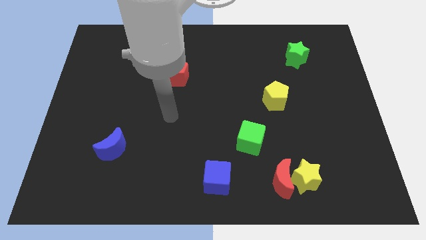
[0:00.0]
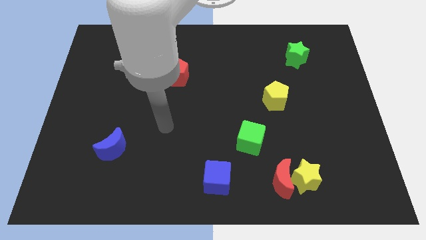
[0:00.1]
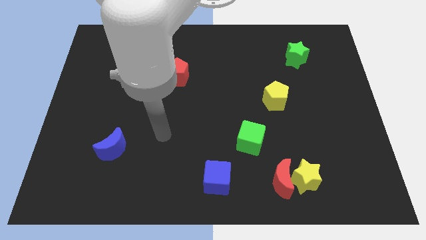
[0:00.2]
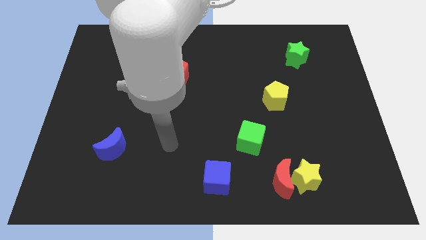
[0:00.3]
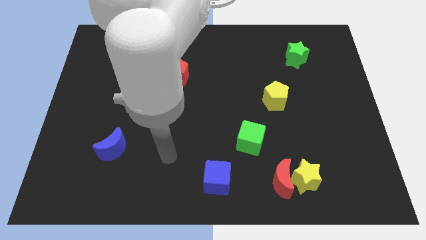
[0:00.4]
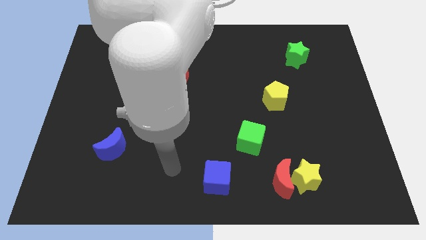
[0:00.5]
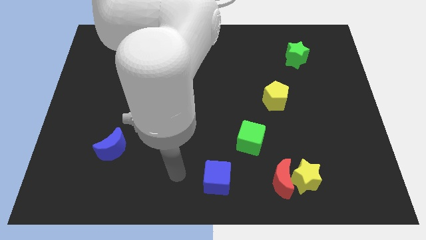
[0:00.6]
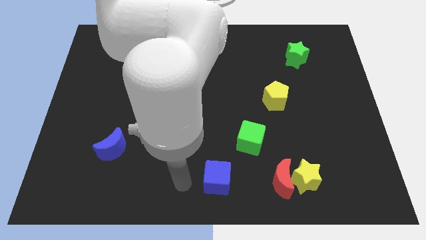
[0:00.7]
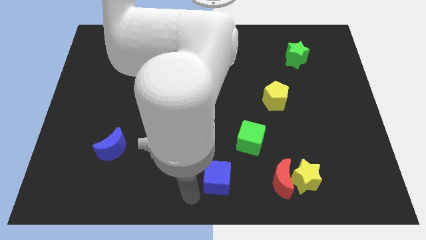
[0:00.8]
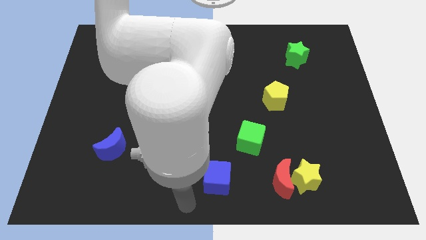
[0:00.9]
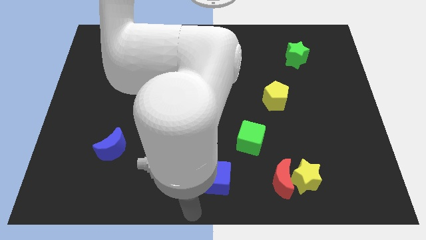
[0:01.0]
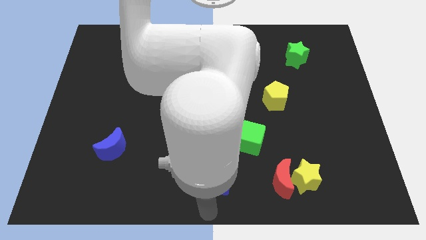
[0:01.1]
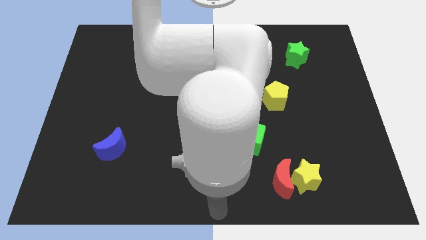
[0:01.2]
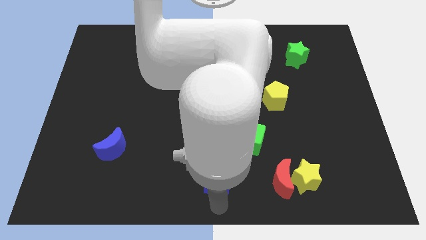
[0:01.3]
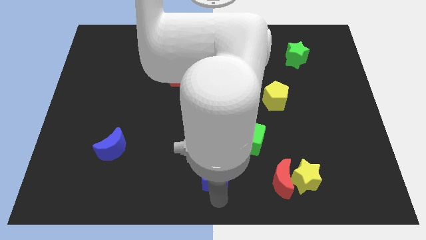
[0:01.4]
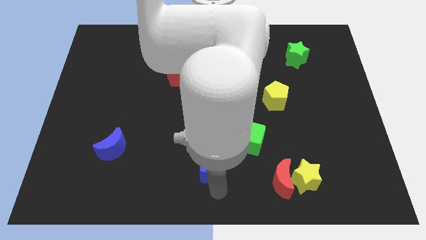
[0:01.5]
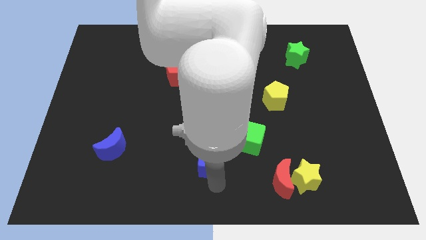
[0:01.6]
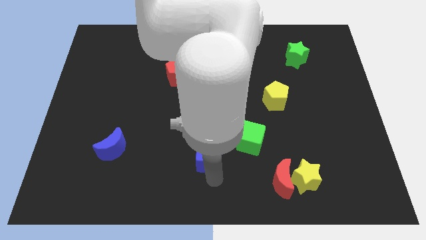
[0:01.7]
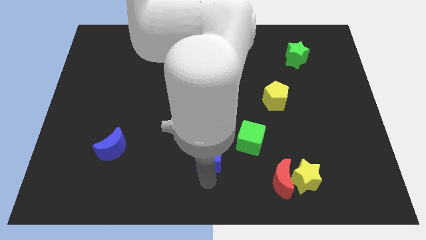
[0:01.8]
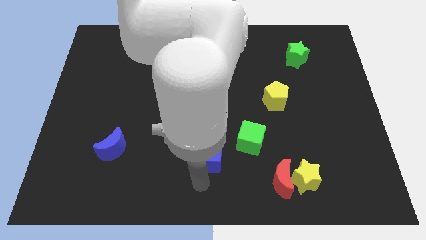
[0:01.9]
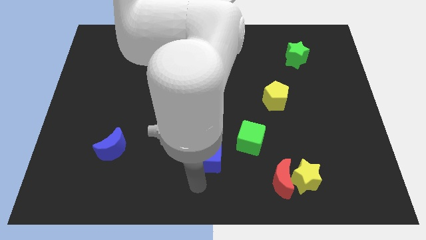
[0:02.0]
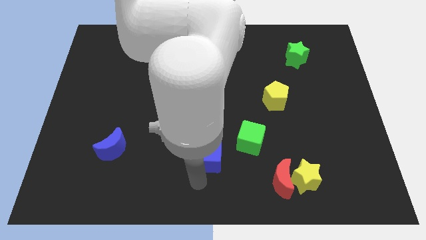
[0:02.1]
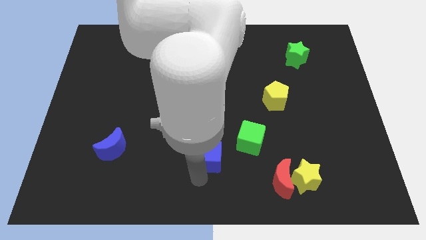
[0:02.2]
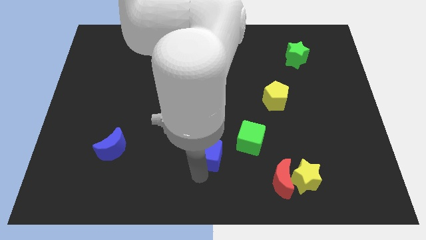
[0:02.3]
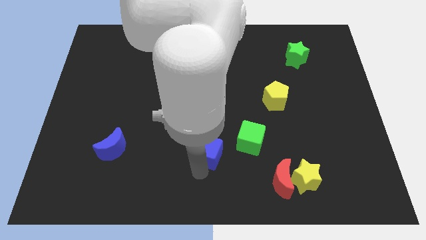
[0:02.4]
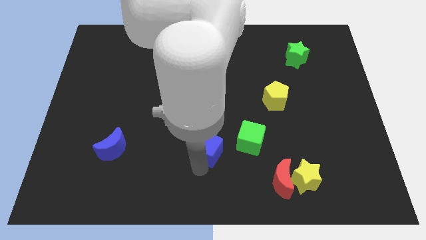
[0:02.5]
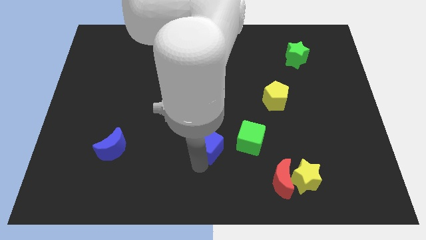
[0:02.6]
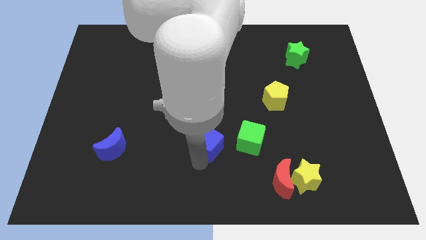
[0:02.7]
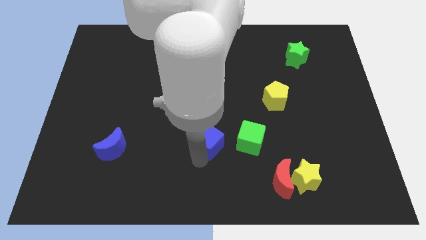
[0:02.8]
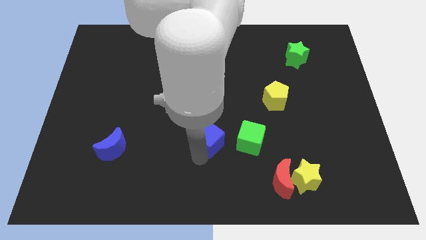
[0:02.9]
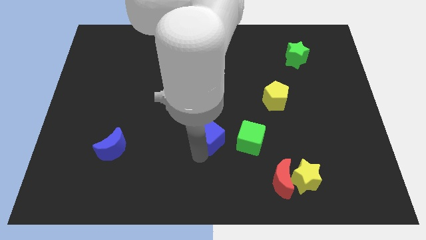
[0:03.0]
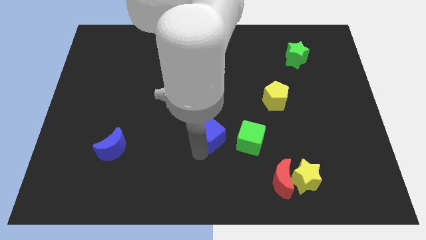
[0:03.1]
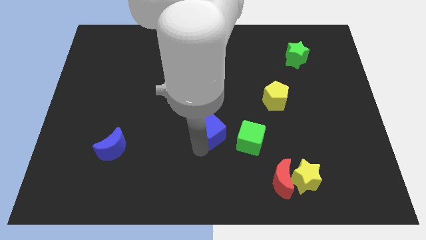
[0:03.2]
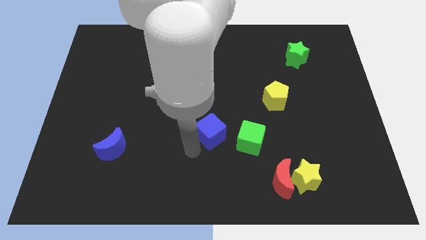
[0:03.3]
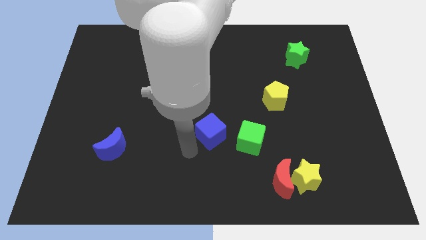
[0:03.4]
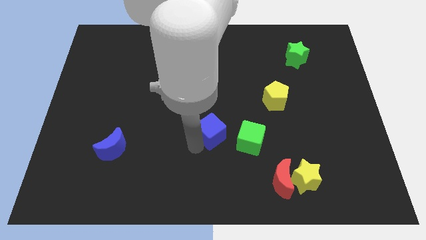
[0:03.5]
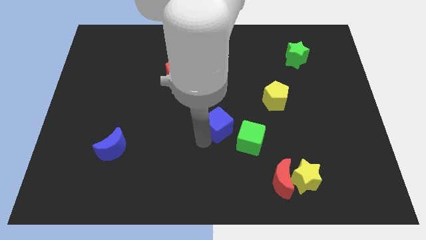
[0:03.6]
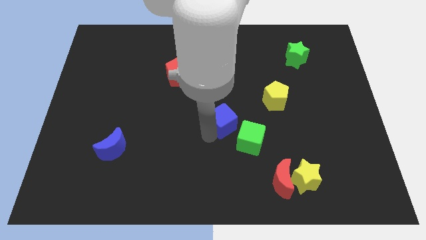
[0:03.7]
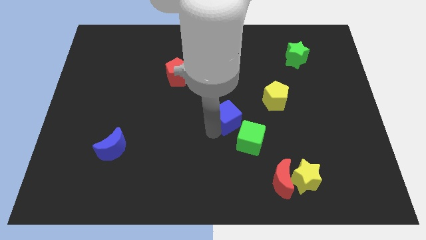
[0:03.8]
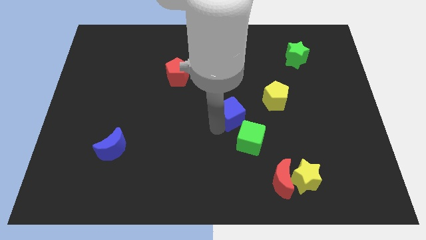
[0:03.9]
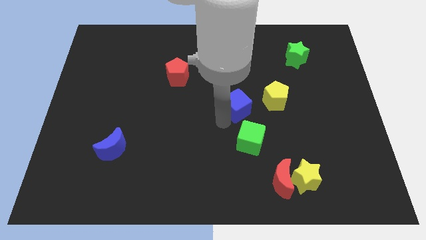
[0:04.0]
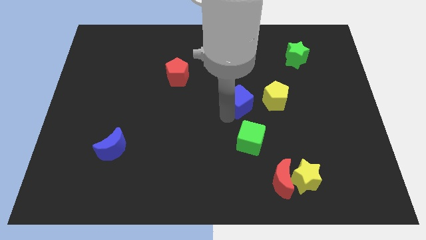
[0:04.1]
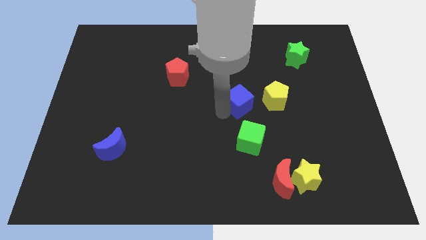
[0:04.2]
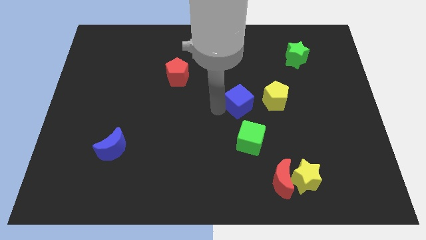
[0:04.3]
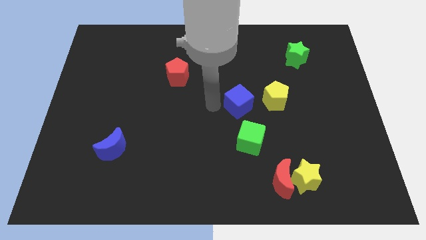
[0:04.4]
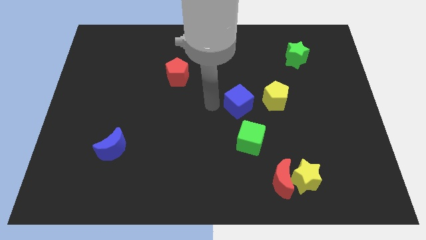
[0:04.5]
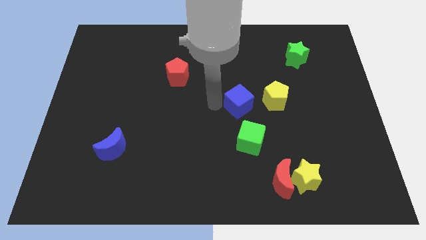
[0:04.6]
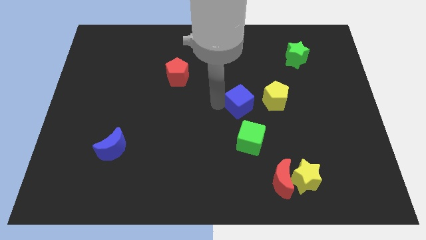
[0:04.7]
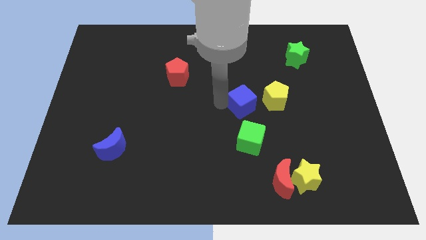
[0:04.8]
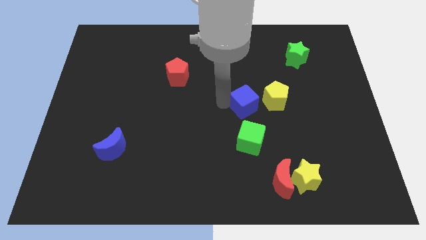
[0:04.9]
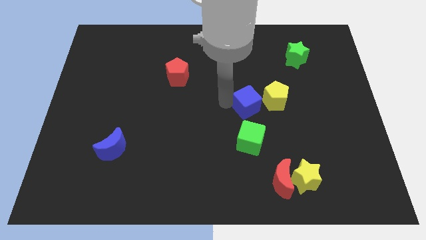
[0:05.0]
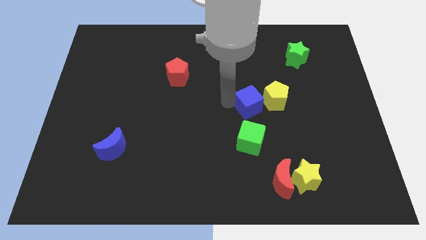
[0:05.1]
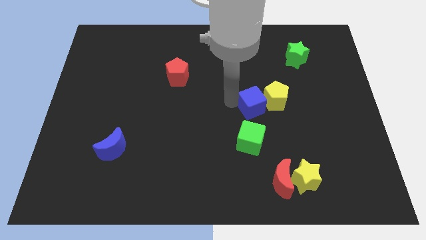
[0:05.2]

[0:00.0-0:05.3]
put the blue cube close to the yellow pentagon

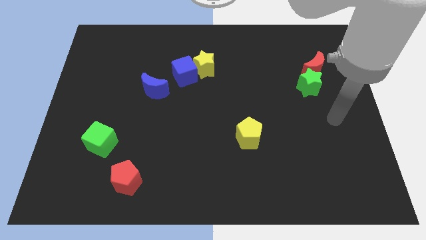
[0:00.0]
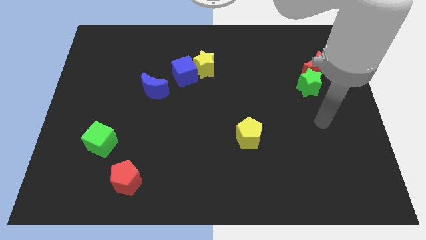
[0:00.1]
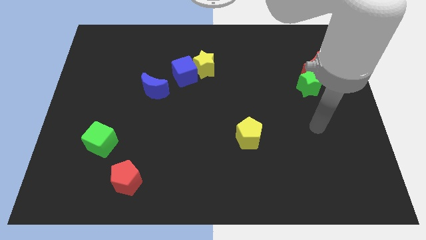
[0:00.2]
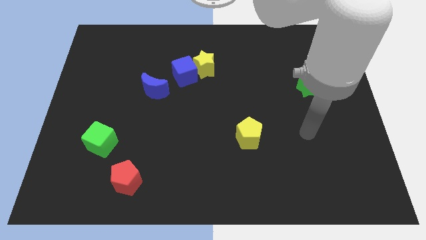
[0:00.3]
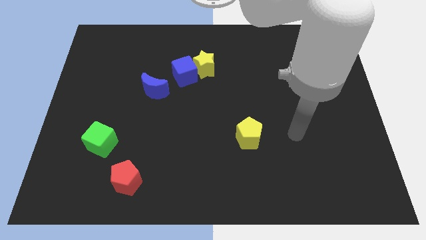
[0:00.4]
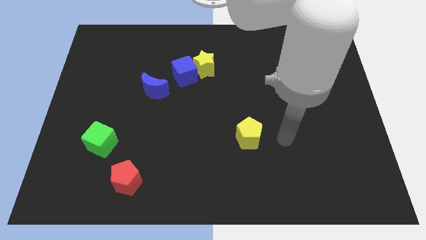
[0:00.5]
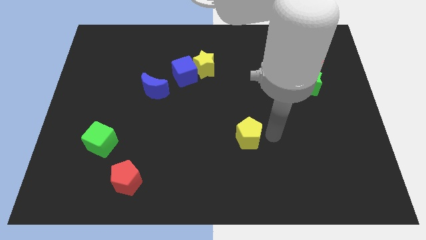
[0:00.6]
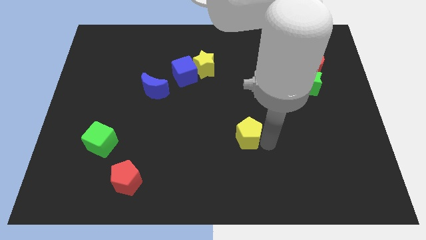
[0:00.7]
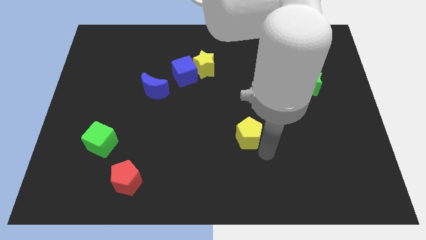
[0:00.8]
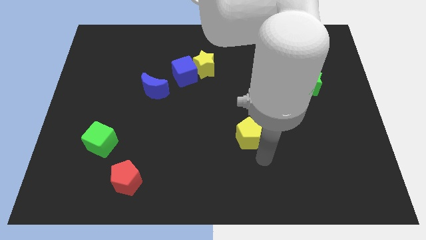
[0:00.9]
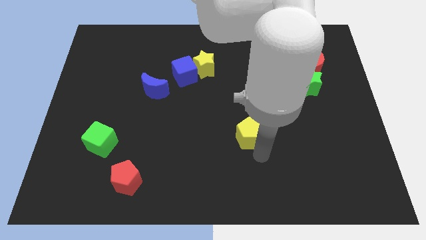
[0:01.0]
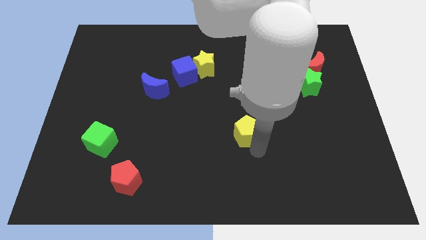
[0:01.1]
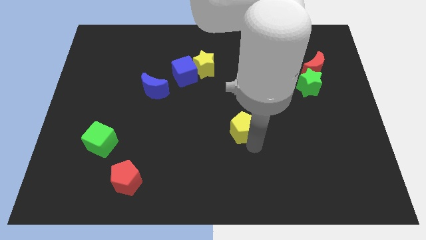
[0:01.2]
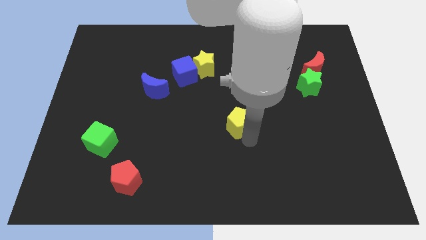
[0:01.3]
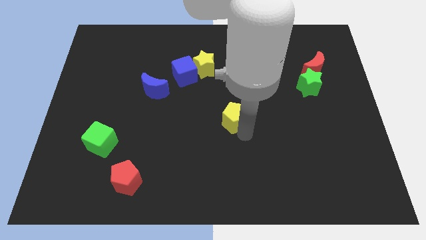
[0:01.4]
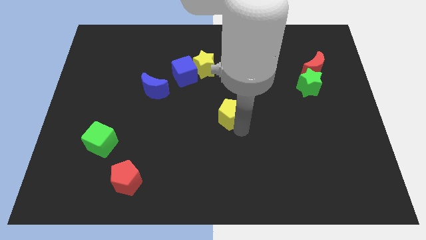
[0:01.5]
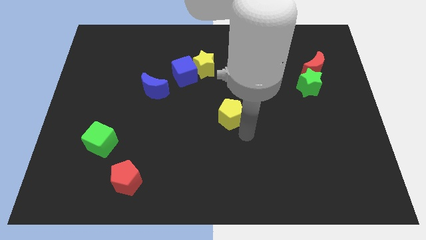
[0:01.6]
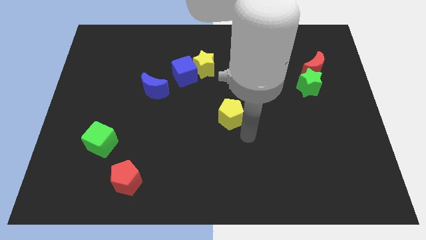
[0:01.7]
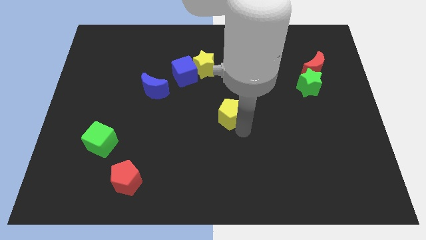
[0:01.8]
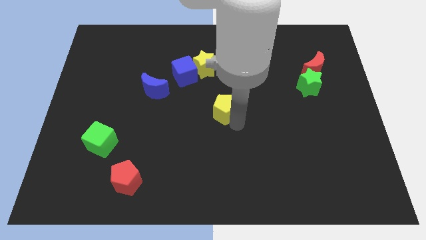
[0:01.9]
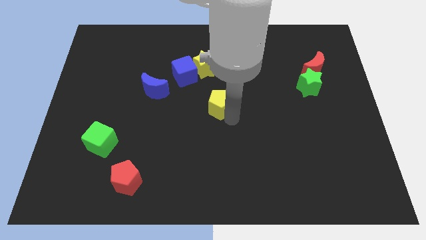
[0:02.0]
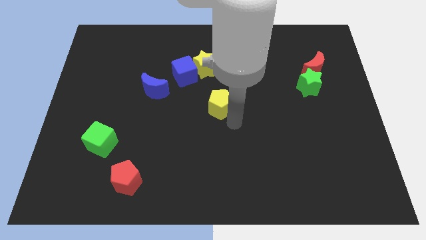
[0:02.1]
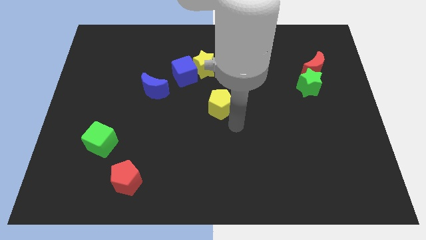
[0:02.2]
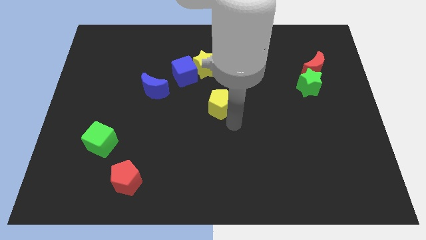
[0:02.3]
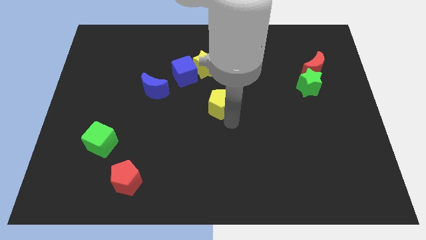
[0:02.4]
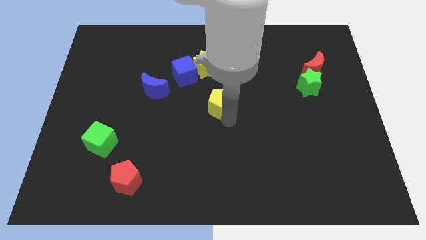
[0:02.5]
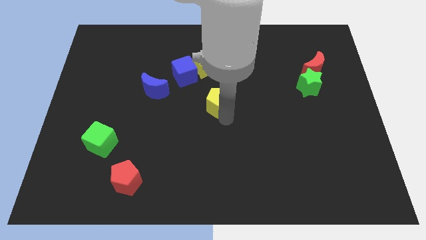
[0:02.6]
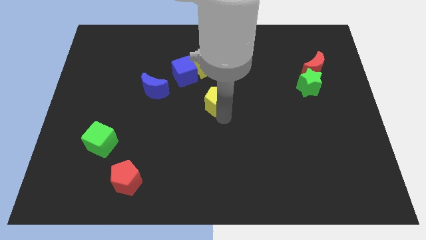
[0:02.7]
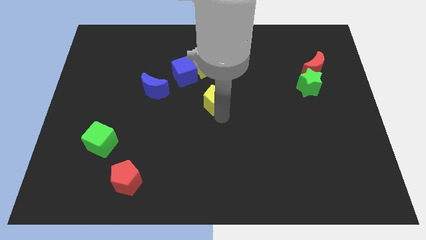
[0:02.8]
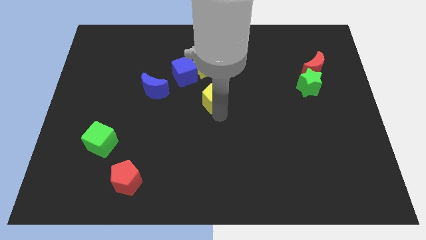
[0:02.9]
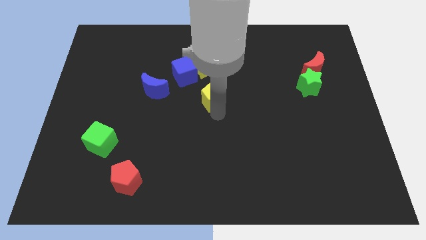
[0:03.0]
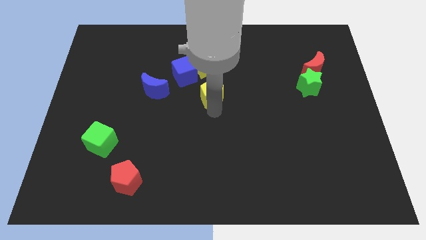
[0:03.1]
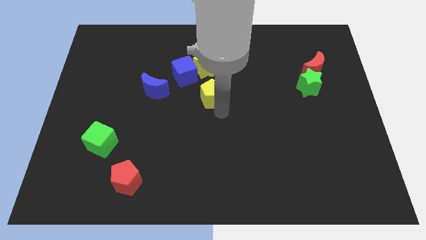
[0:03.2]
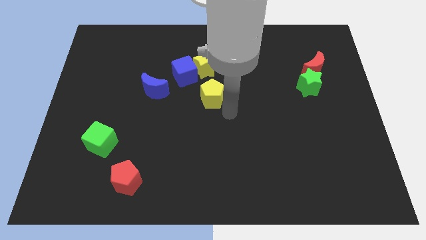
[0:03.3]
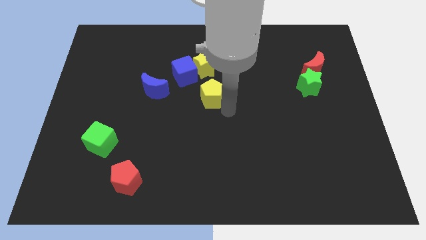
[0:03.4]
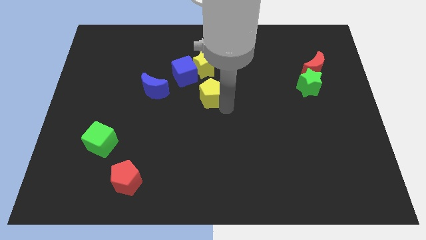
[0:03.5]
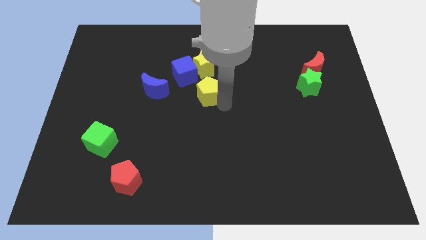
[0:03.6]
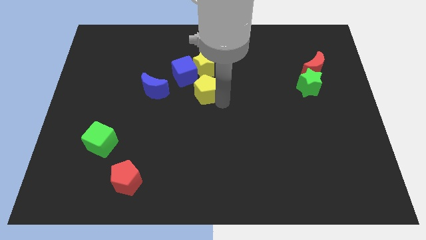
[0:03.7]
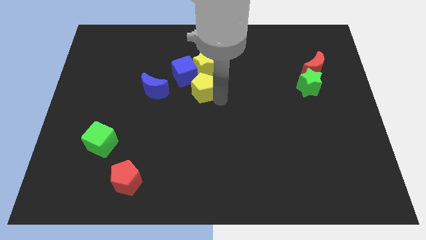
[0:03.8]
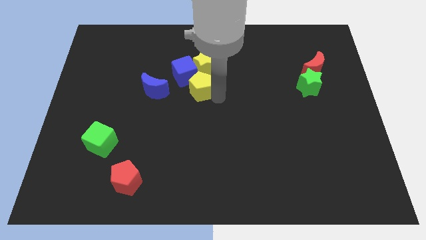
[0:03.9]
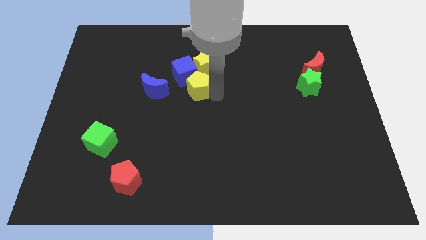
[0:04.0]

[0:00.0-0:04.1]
push the yellow pentagon close to the blue cube
